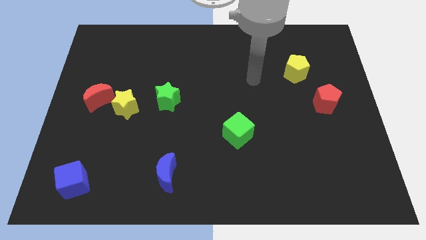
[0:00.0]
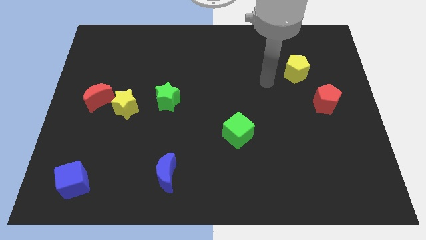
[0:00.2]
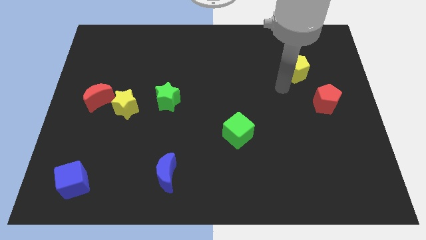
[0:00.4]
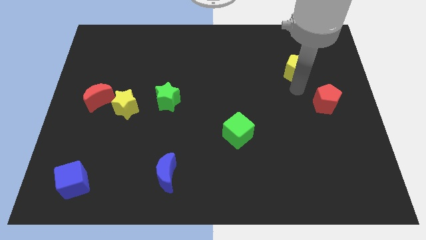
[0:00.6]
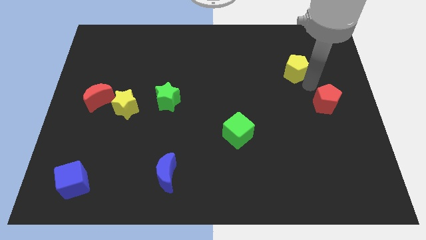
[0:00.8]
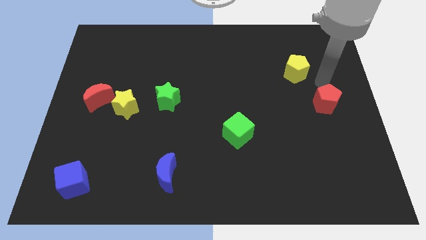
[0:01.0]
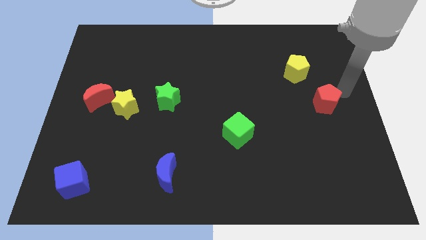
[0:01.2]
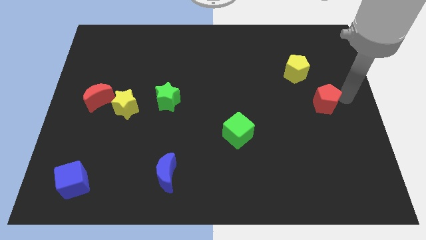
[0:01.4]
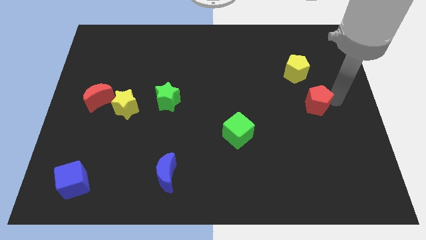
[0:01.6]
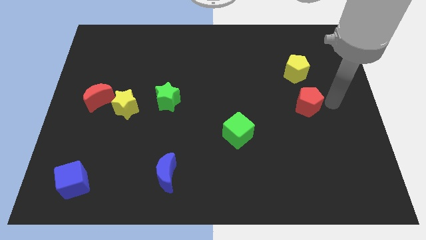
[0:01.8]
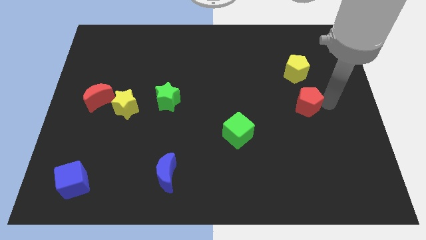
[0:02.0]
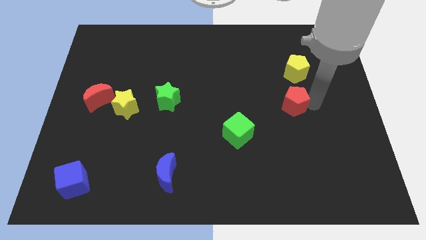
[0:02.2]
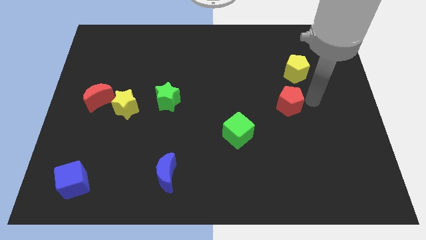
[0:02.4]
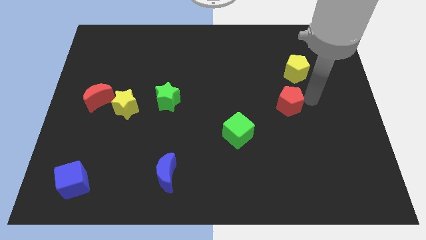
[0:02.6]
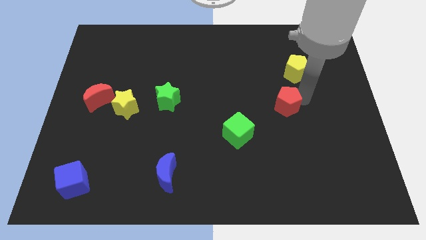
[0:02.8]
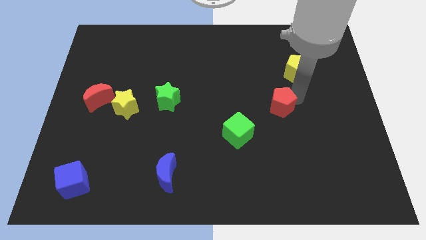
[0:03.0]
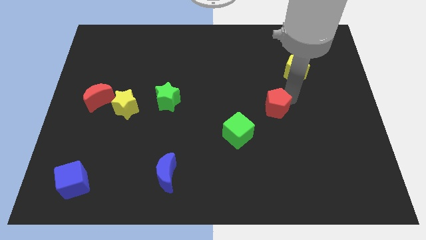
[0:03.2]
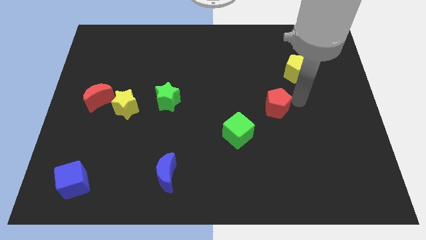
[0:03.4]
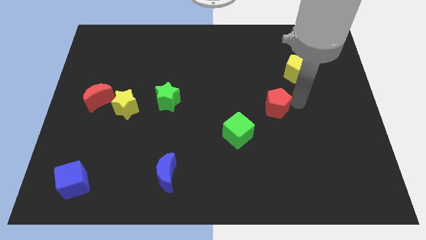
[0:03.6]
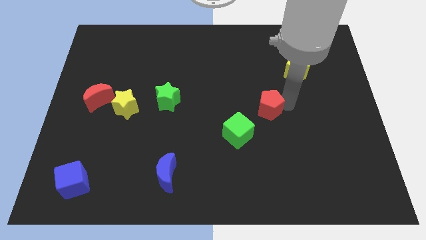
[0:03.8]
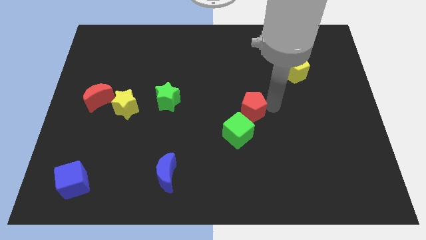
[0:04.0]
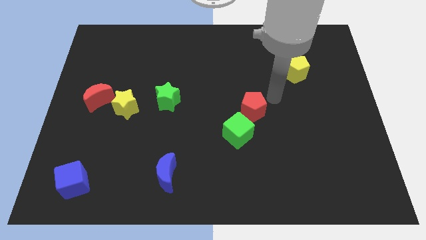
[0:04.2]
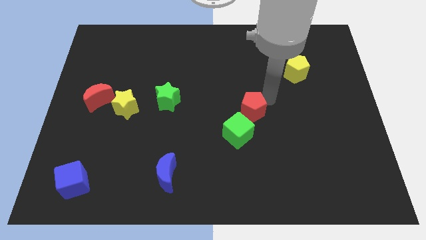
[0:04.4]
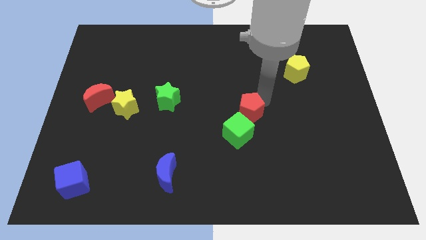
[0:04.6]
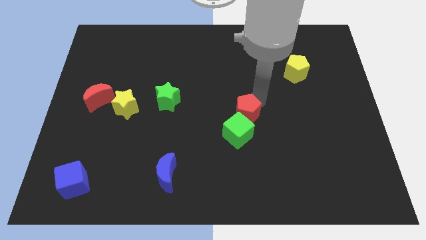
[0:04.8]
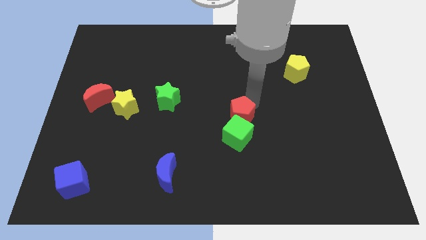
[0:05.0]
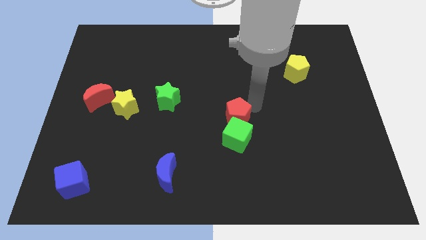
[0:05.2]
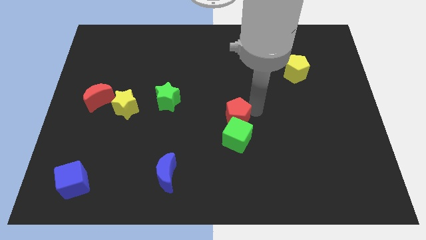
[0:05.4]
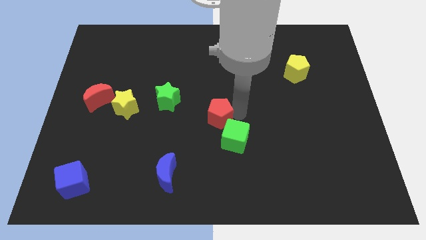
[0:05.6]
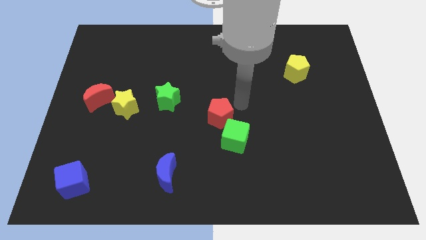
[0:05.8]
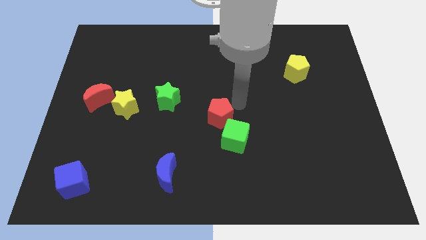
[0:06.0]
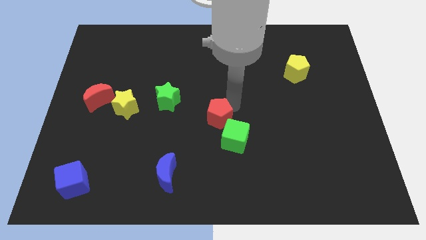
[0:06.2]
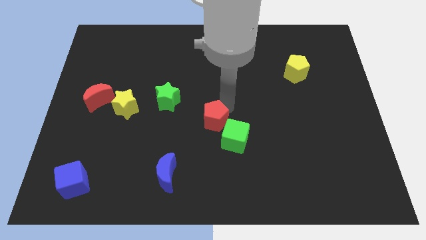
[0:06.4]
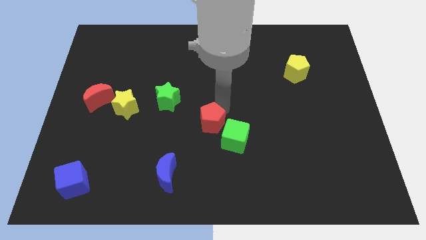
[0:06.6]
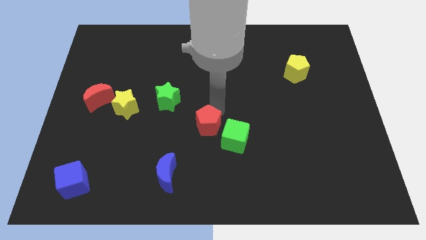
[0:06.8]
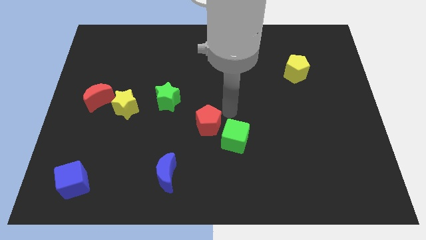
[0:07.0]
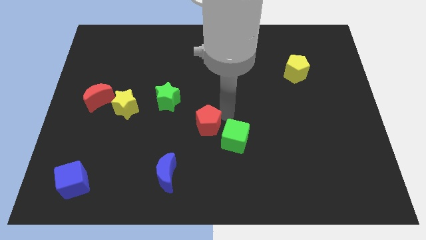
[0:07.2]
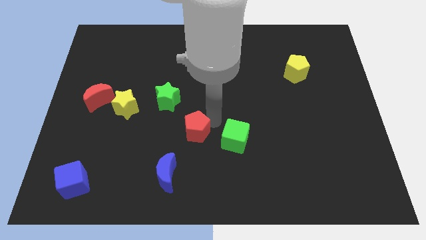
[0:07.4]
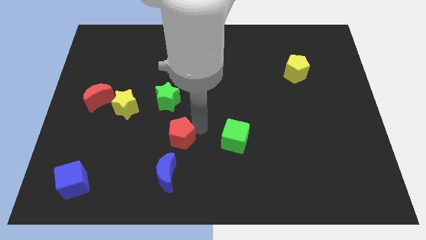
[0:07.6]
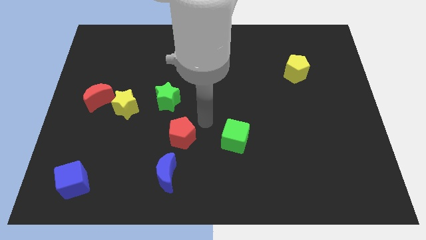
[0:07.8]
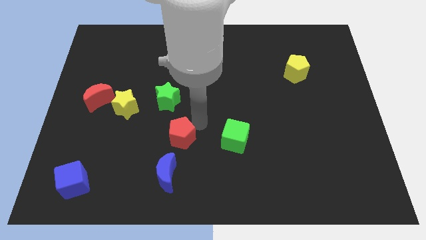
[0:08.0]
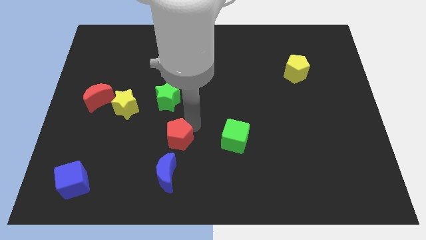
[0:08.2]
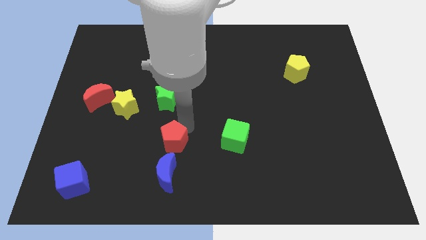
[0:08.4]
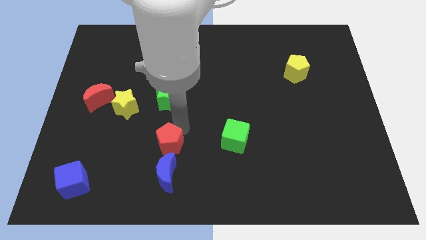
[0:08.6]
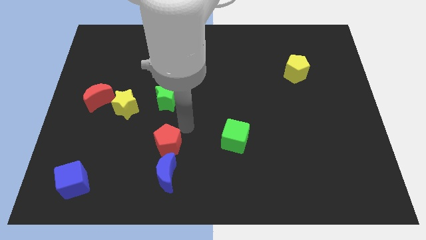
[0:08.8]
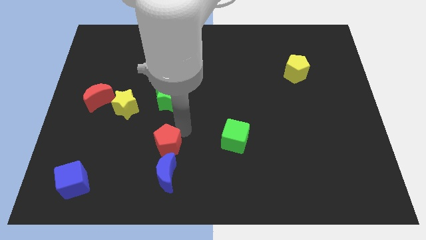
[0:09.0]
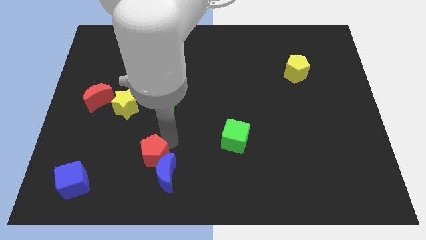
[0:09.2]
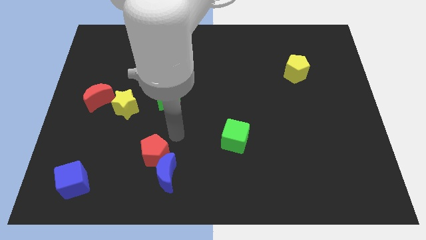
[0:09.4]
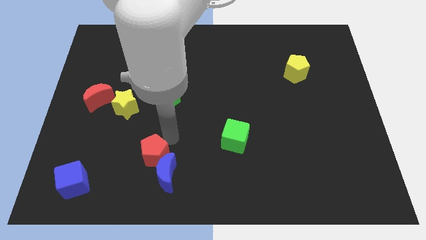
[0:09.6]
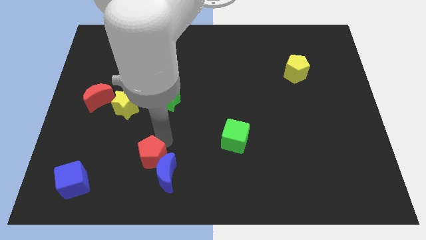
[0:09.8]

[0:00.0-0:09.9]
put the red pentagon to the left of the blue moon

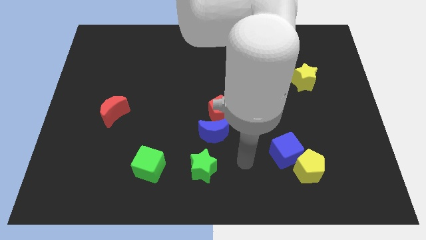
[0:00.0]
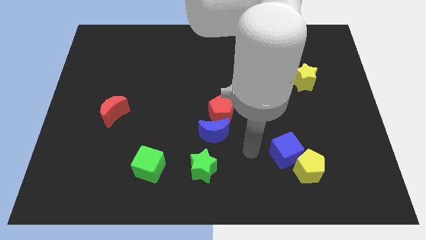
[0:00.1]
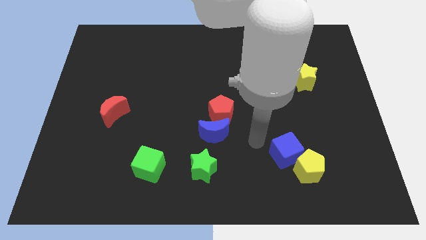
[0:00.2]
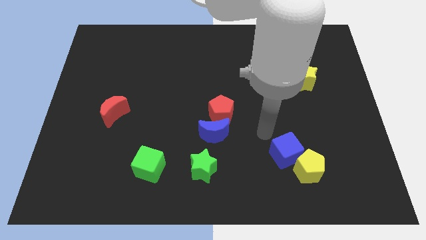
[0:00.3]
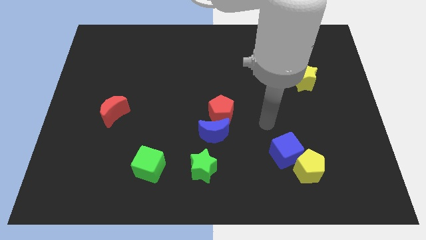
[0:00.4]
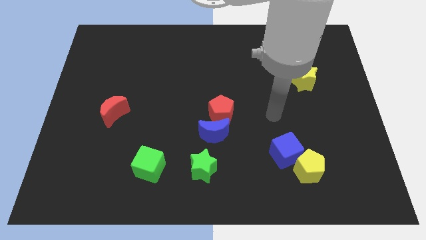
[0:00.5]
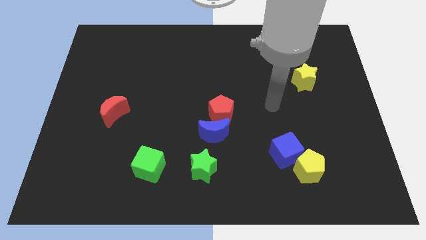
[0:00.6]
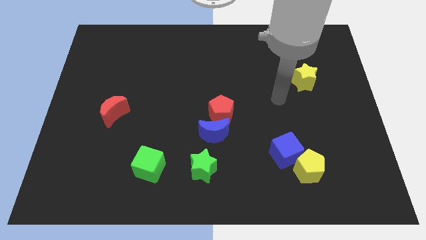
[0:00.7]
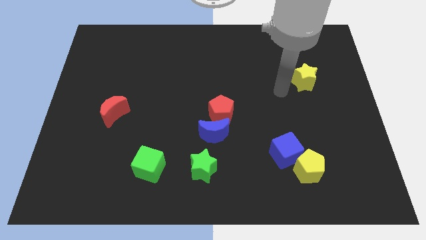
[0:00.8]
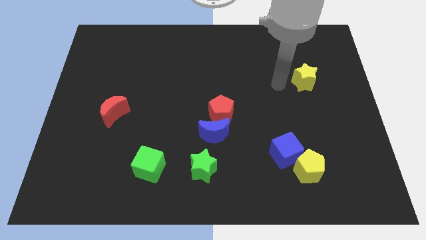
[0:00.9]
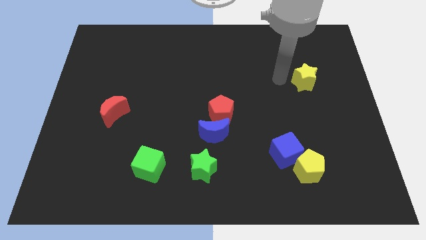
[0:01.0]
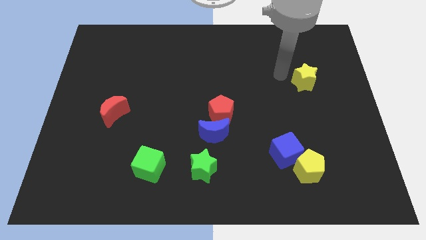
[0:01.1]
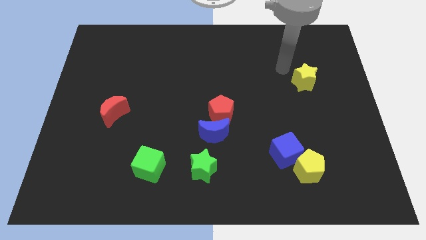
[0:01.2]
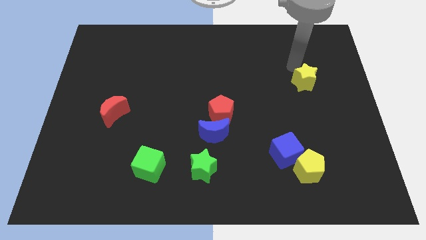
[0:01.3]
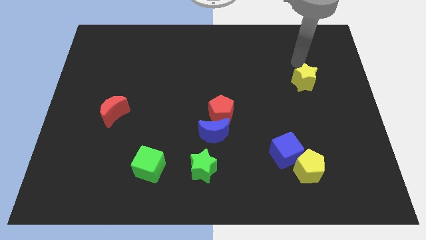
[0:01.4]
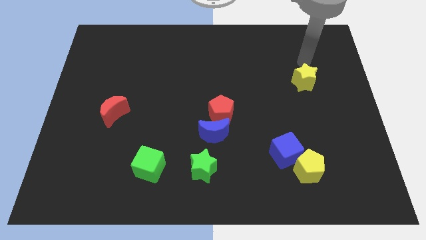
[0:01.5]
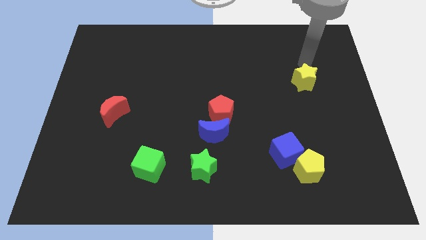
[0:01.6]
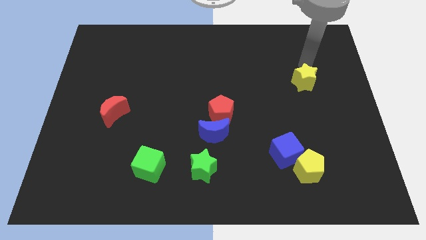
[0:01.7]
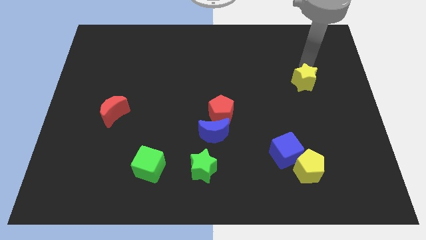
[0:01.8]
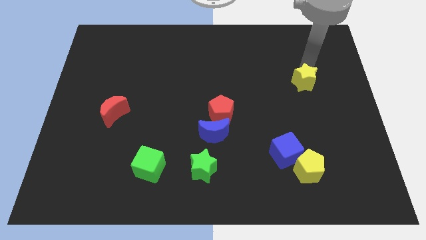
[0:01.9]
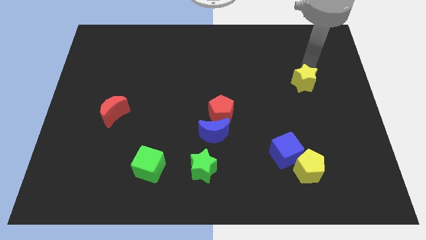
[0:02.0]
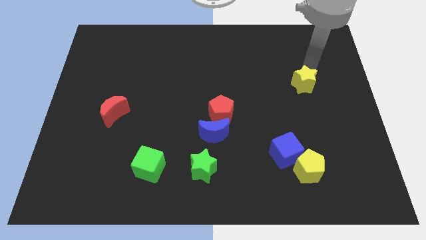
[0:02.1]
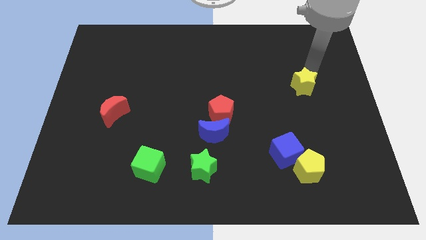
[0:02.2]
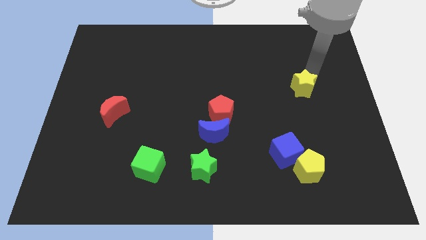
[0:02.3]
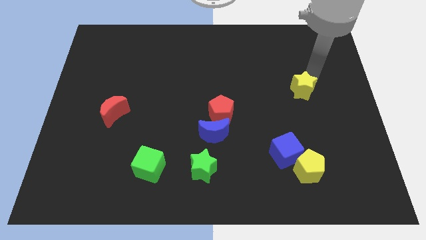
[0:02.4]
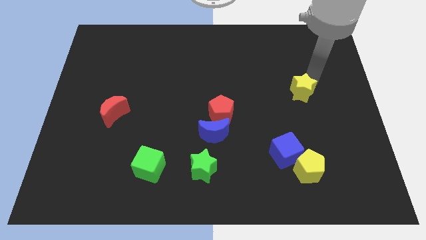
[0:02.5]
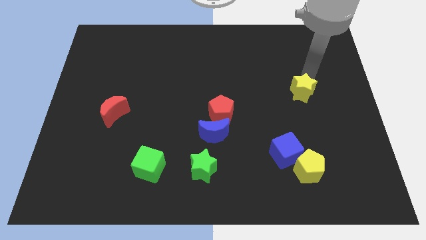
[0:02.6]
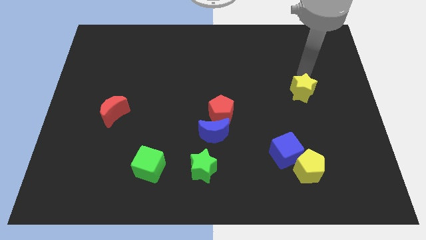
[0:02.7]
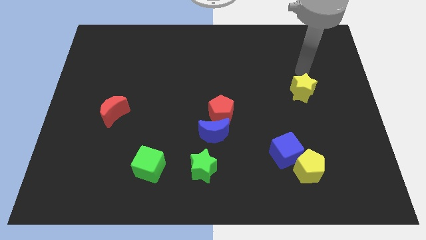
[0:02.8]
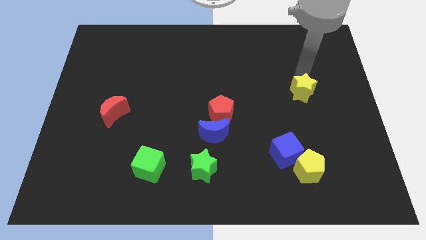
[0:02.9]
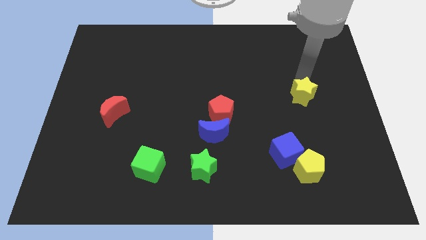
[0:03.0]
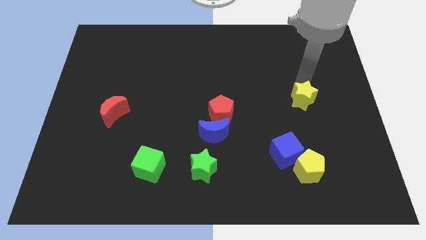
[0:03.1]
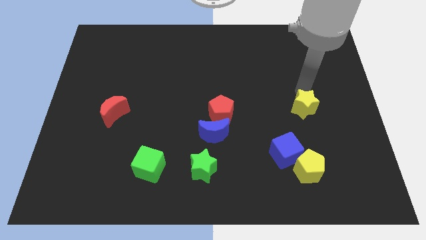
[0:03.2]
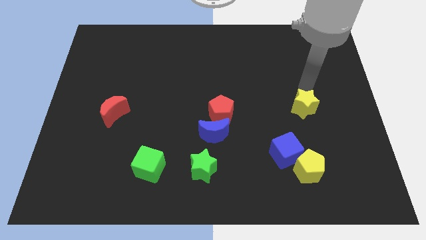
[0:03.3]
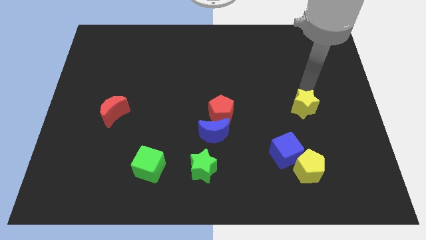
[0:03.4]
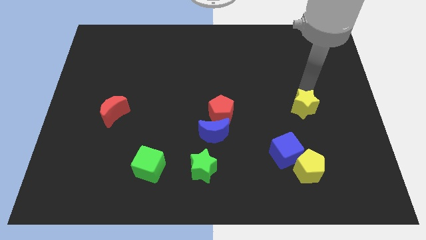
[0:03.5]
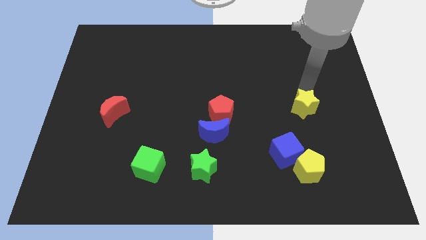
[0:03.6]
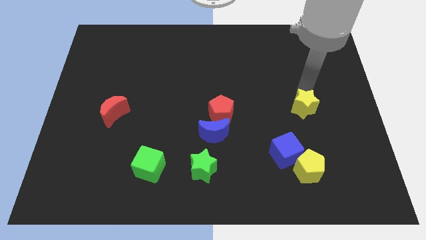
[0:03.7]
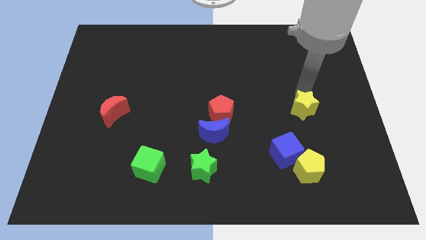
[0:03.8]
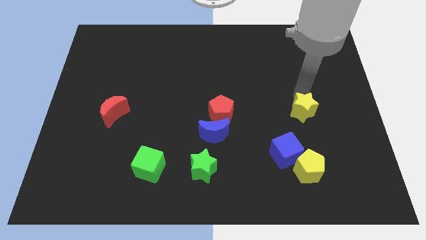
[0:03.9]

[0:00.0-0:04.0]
move the yellow star to the top of the yellow pentagon
